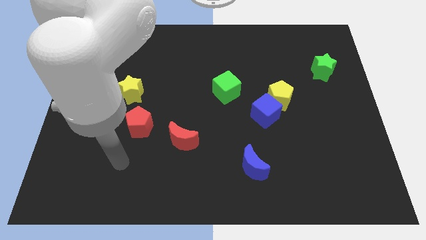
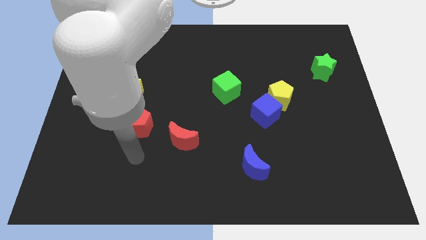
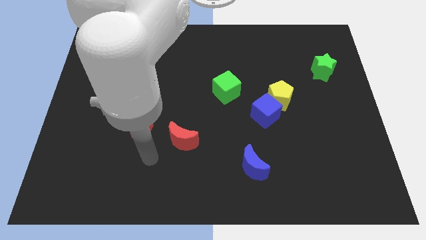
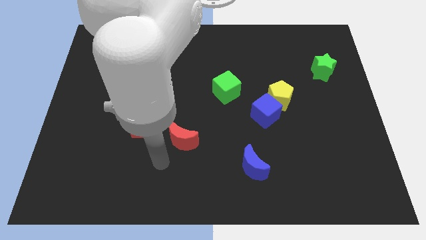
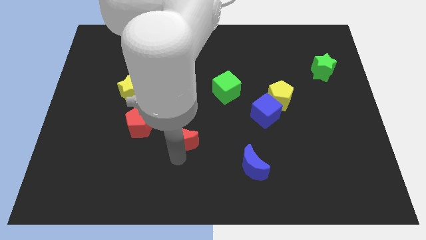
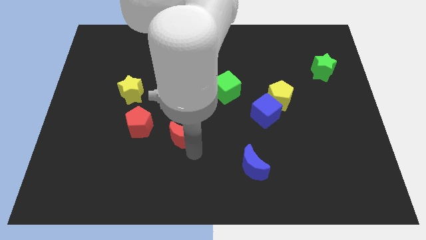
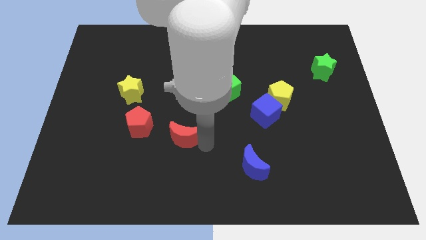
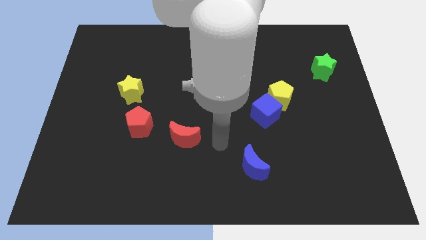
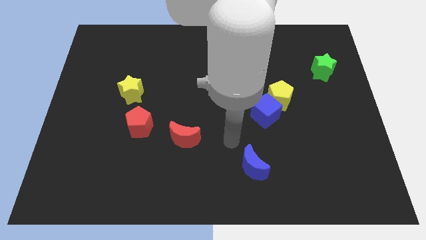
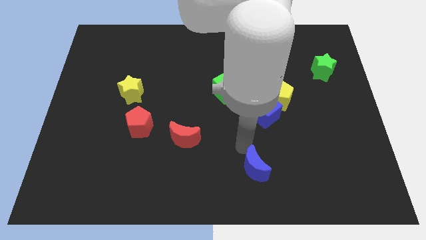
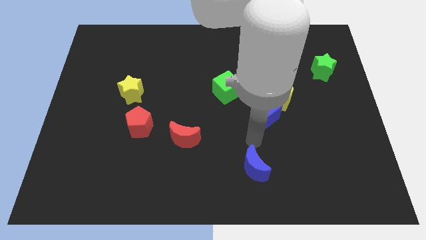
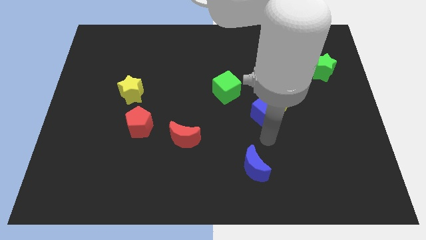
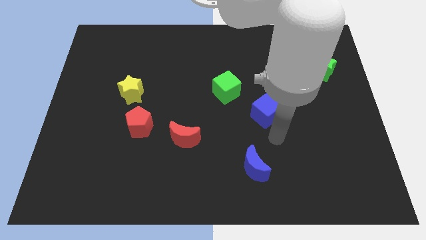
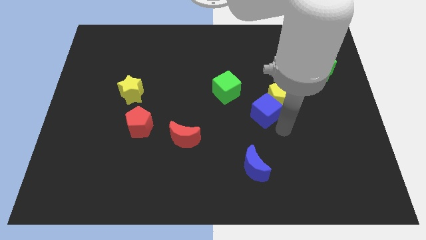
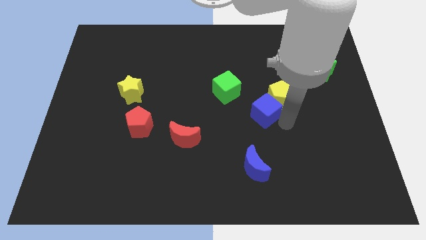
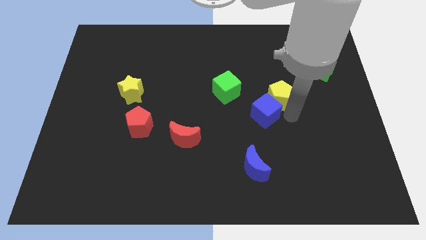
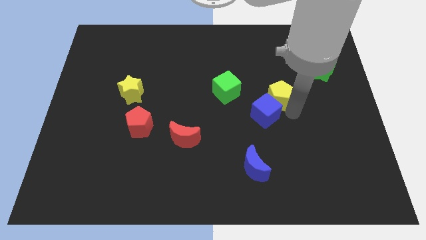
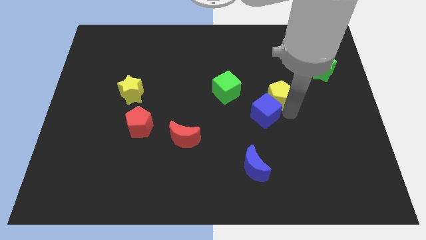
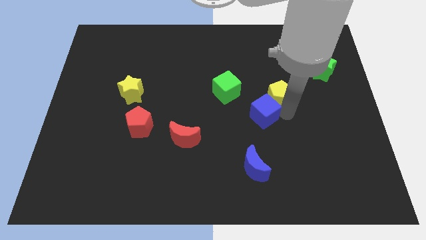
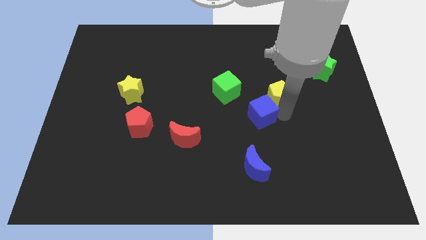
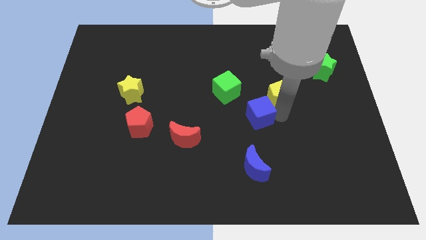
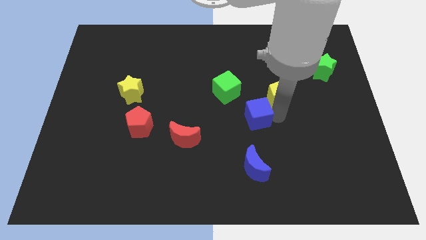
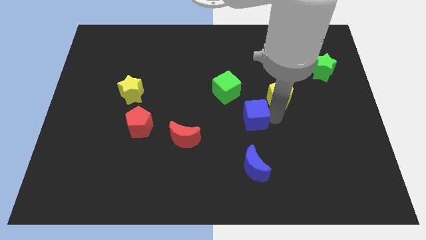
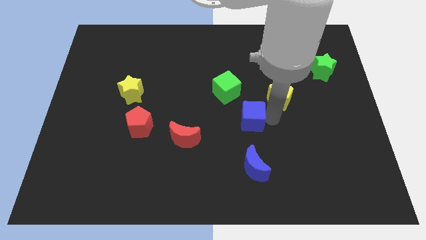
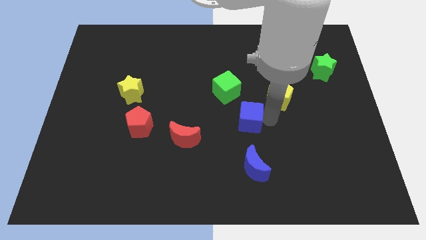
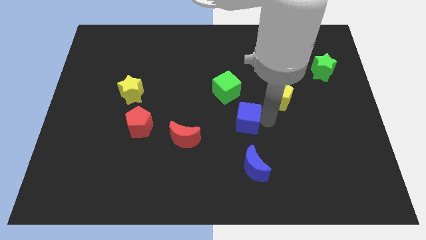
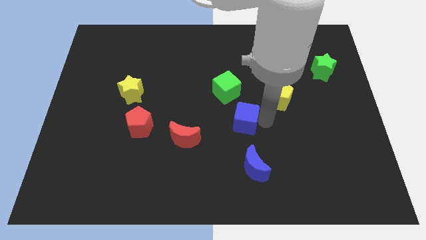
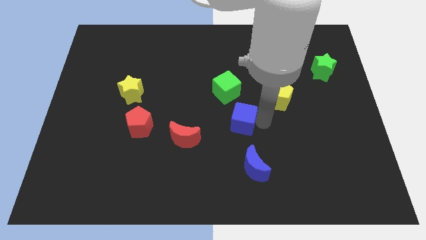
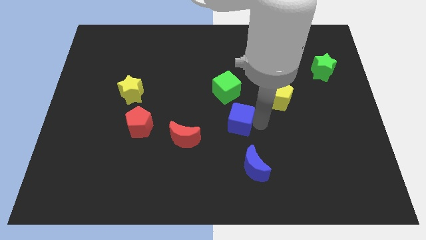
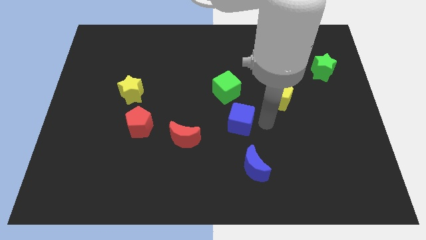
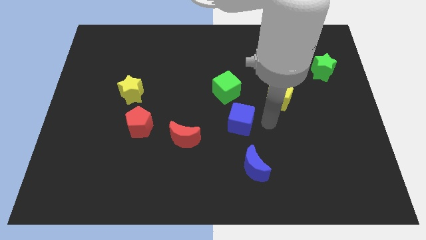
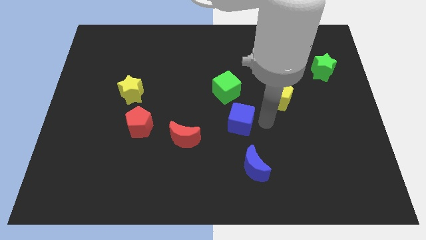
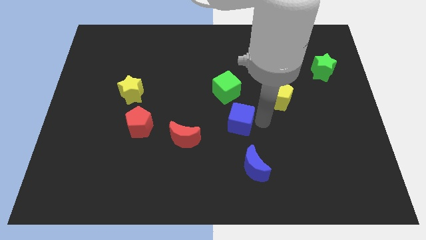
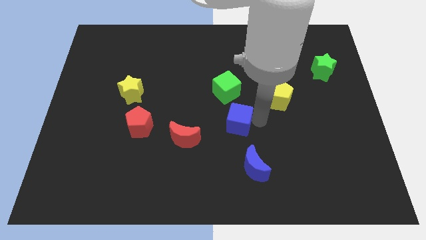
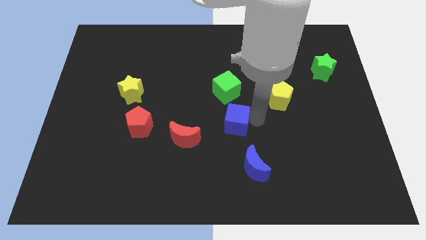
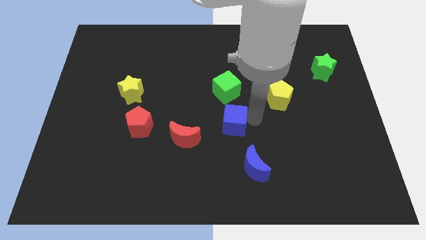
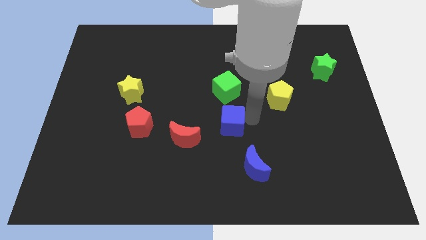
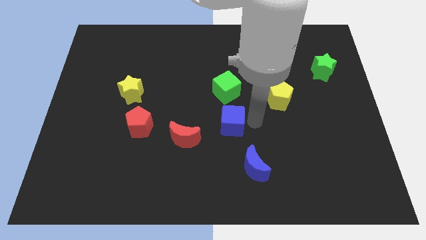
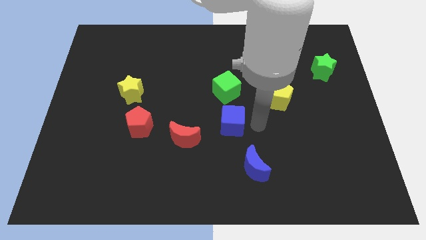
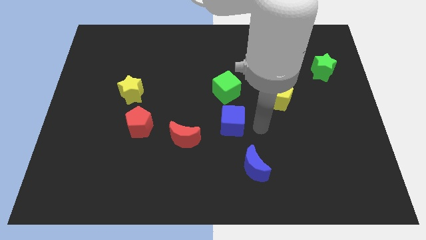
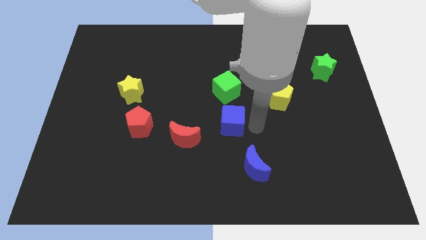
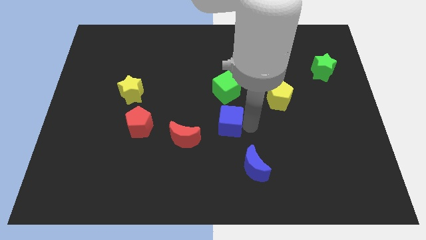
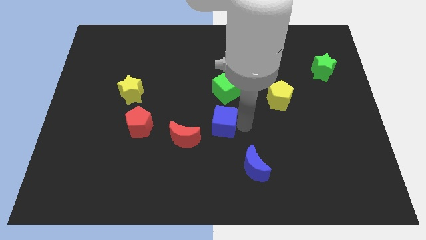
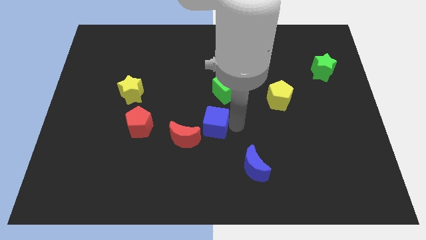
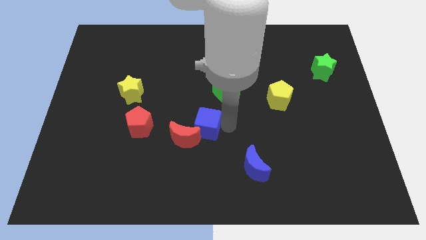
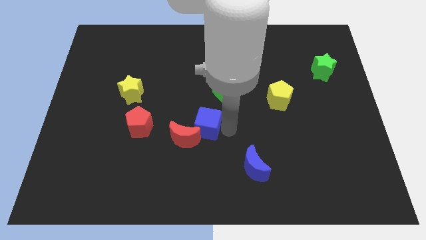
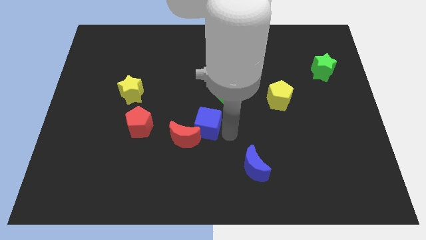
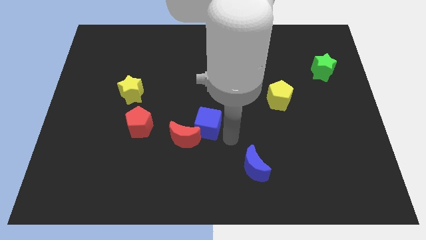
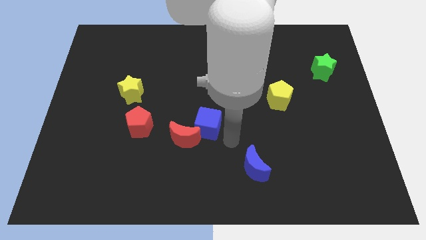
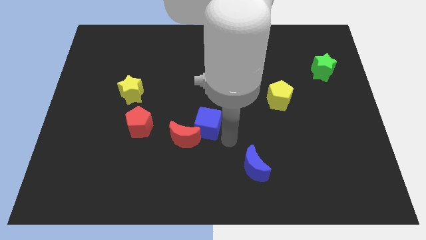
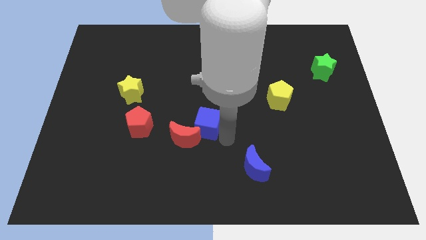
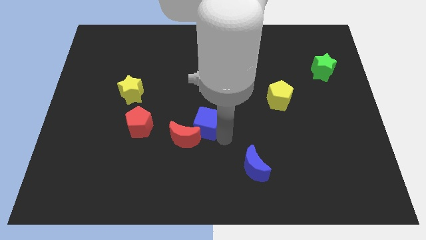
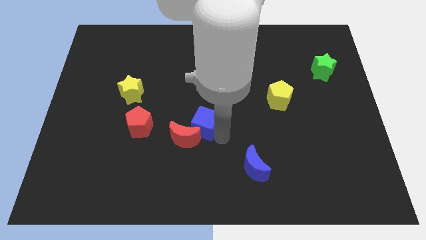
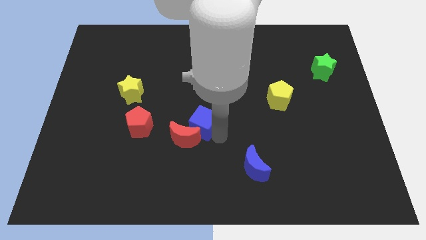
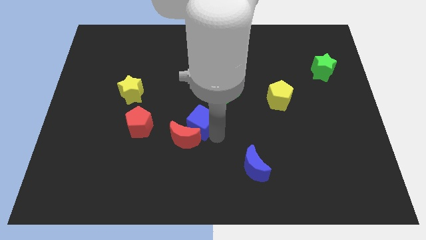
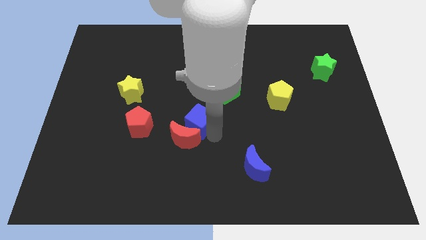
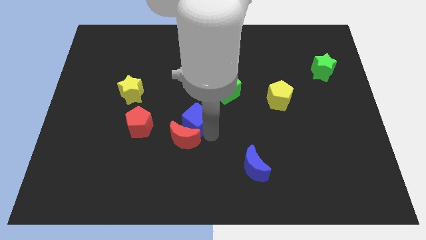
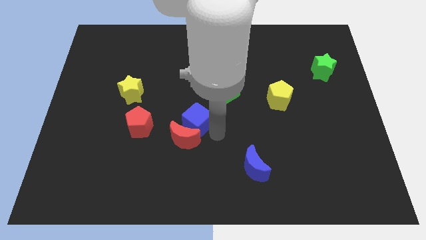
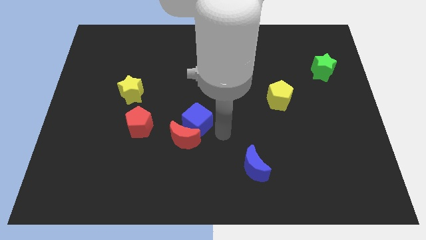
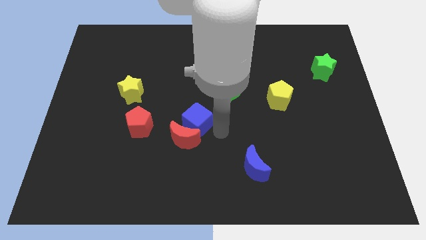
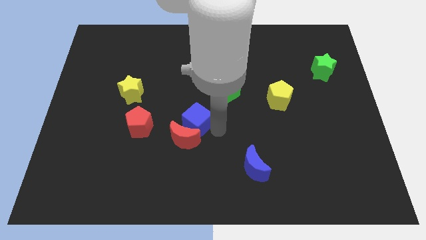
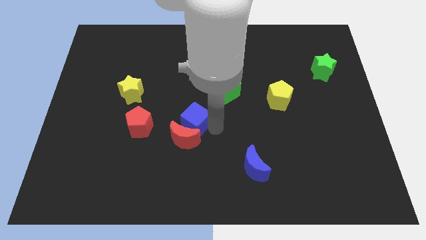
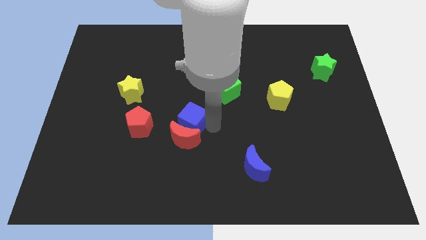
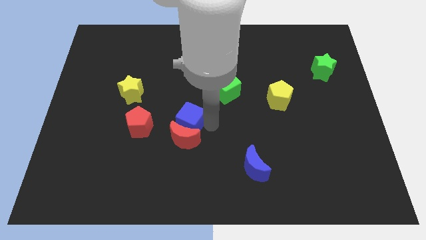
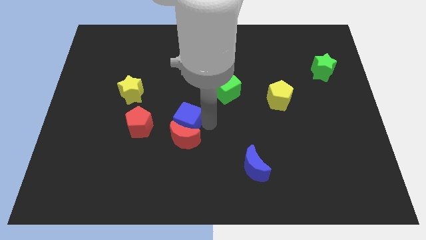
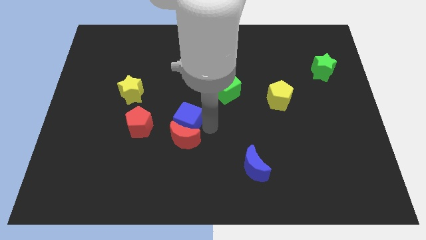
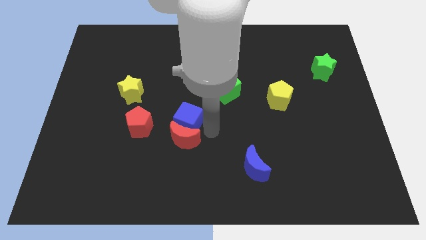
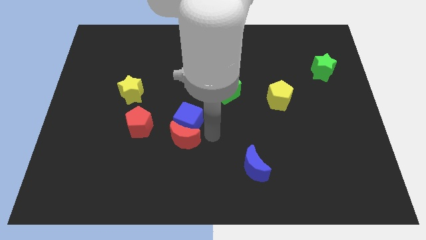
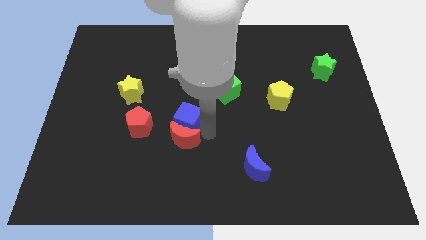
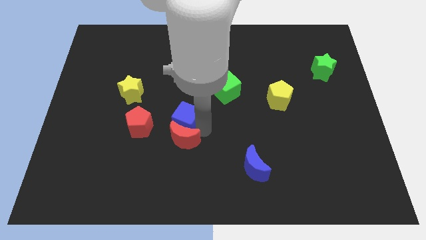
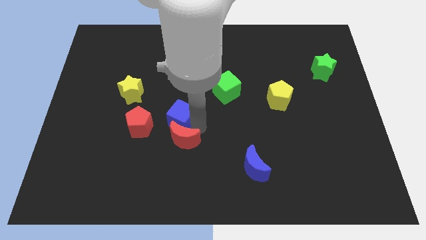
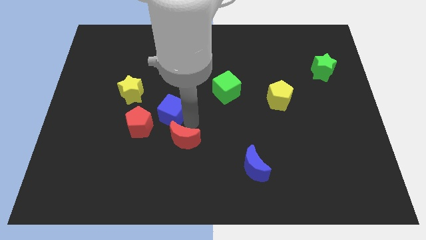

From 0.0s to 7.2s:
move the blue cube left

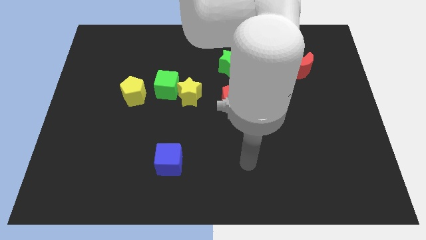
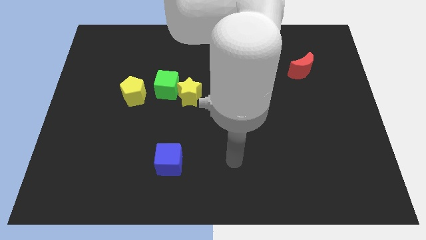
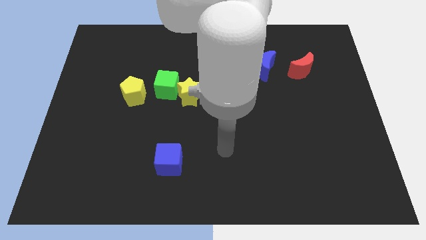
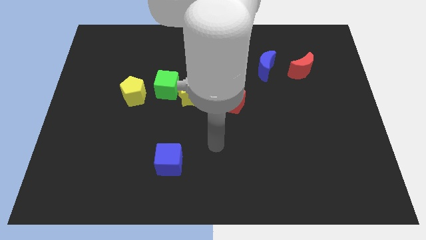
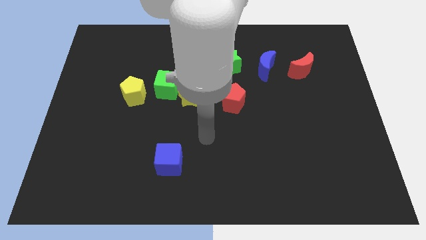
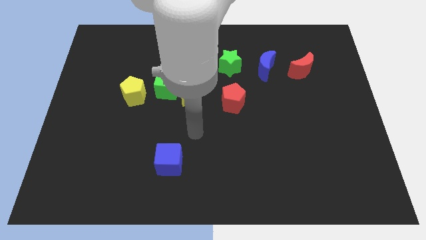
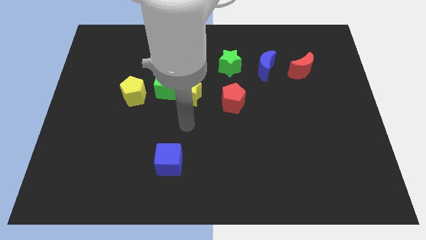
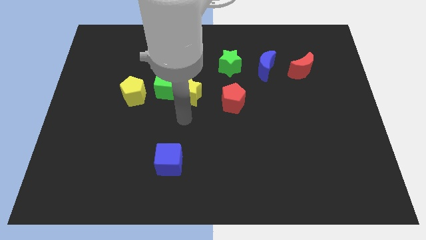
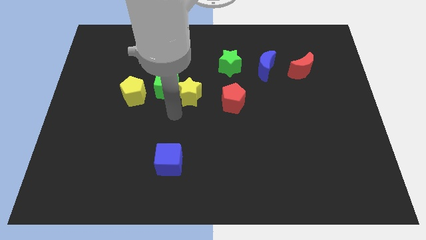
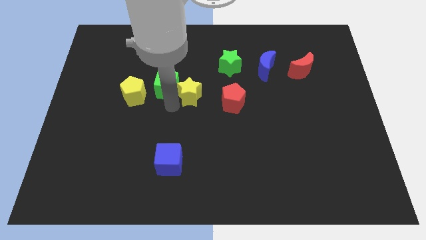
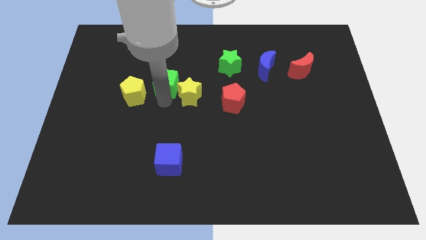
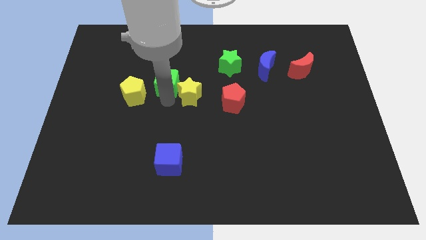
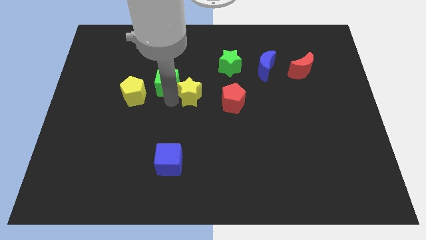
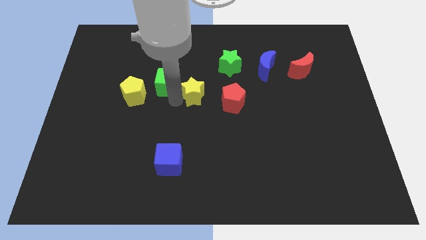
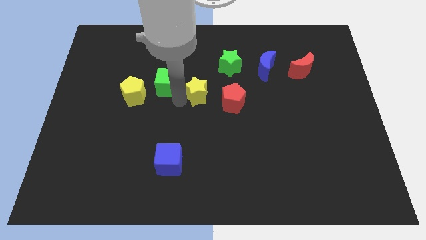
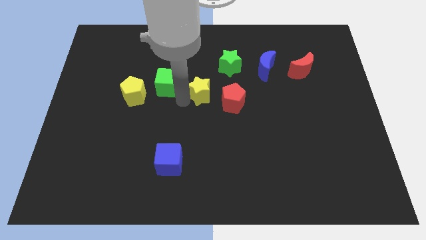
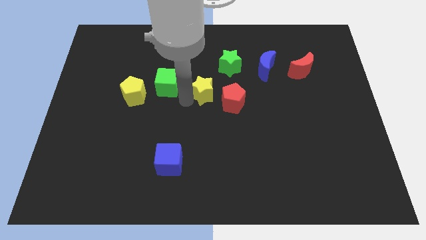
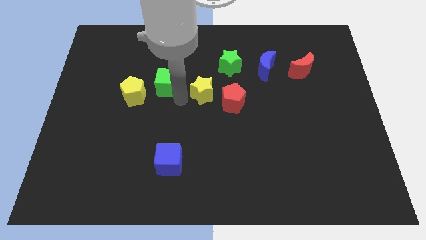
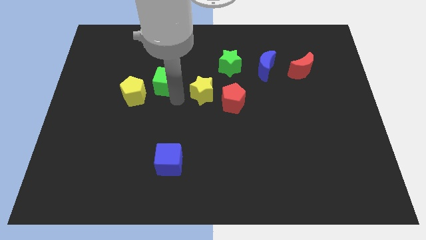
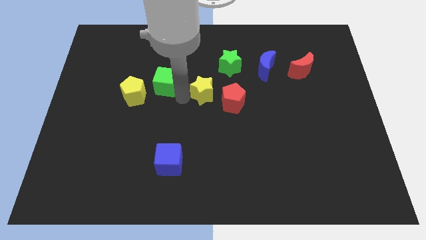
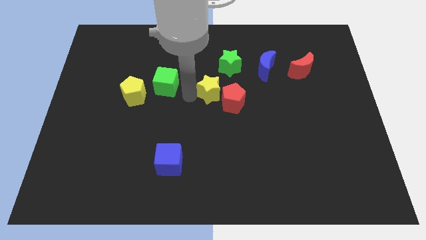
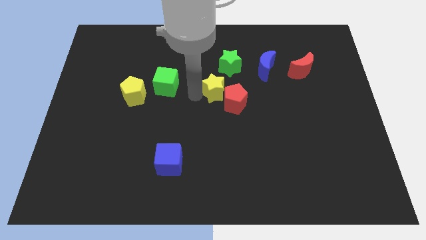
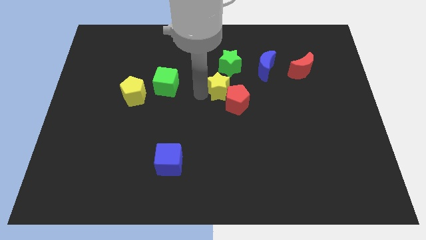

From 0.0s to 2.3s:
slightly push the yellow star right
